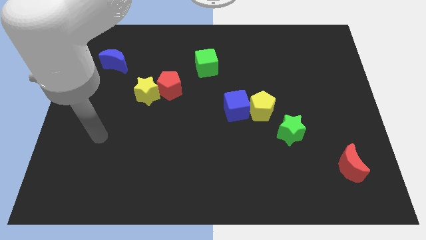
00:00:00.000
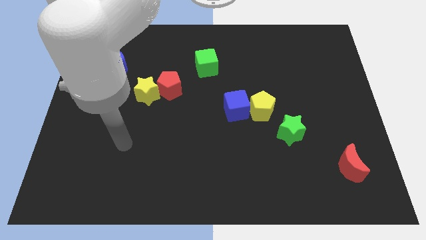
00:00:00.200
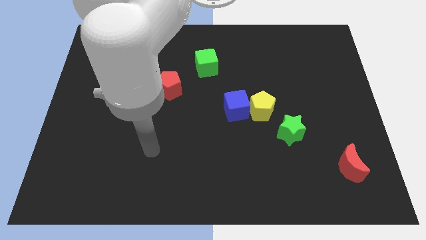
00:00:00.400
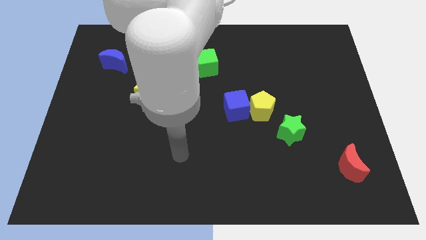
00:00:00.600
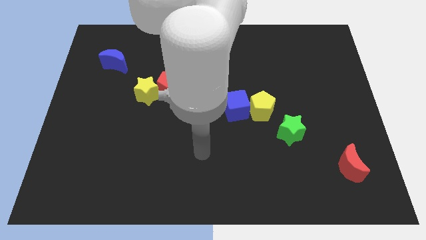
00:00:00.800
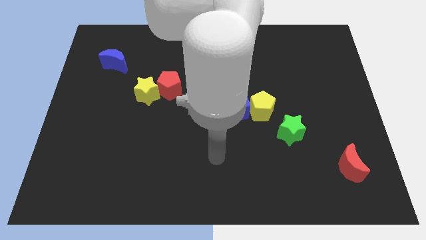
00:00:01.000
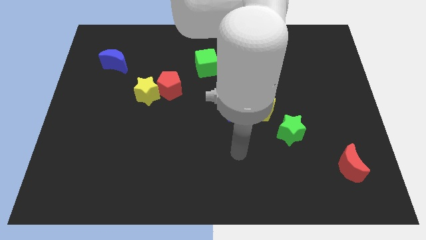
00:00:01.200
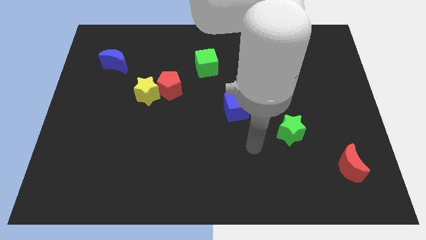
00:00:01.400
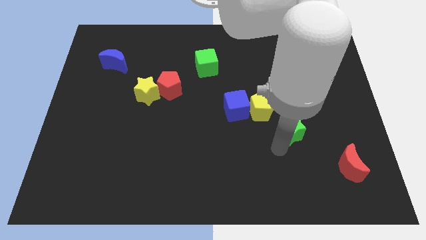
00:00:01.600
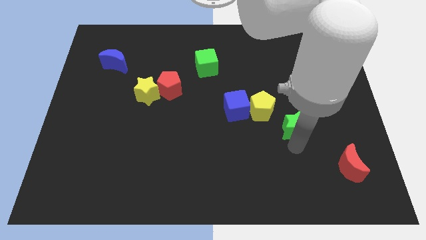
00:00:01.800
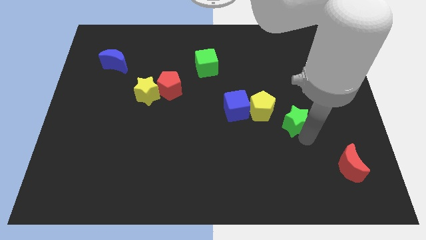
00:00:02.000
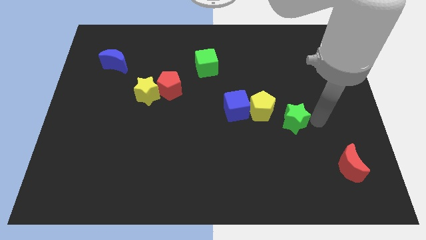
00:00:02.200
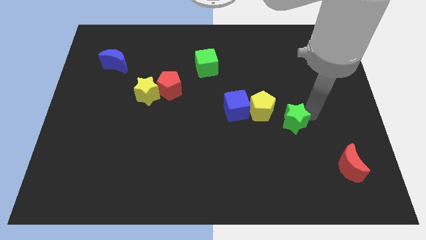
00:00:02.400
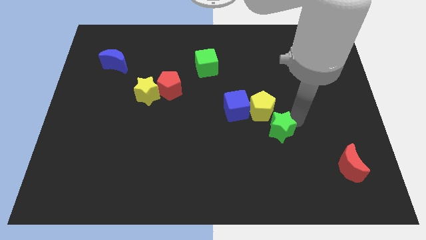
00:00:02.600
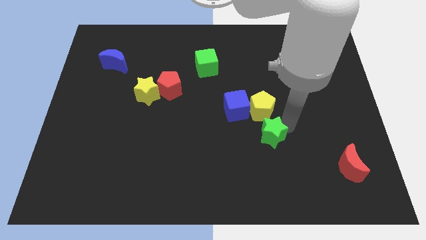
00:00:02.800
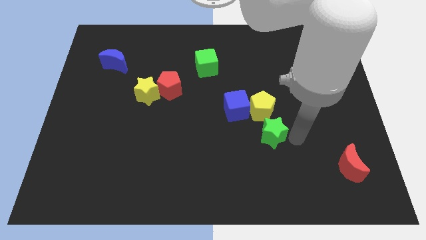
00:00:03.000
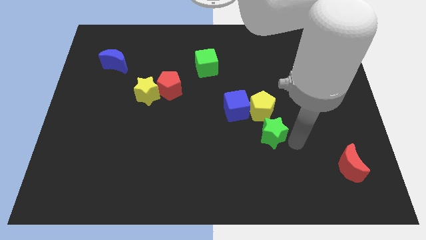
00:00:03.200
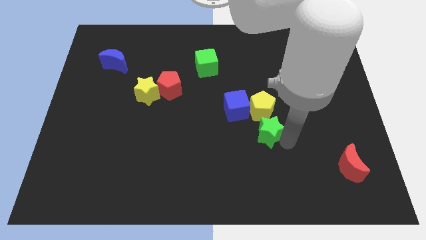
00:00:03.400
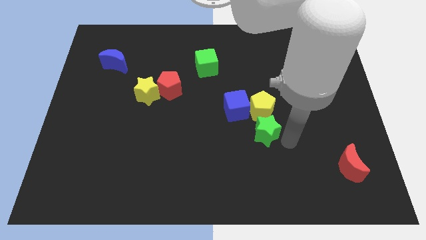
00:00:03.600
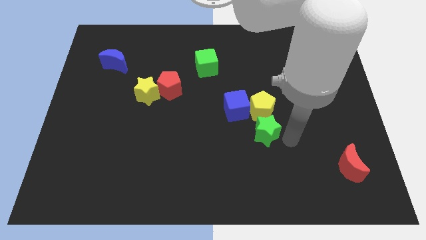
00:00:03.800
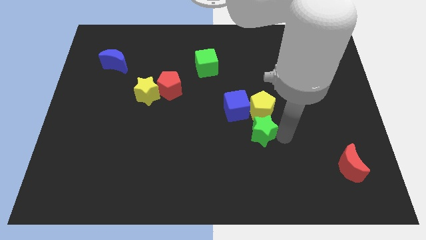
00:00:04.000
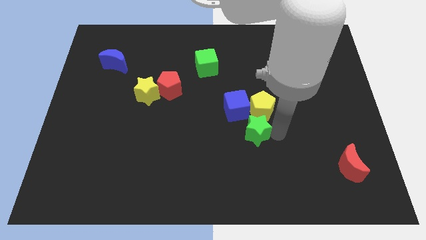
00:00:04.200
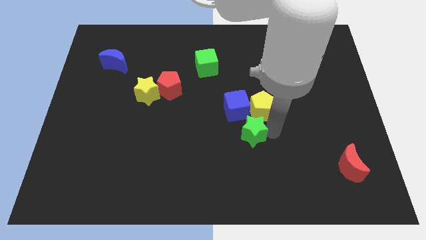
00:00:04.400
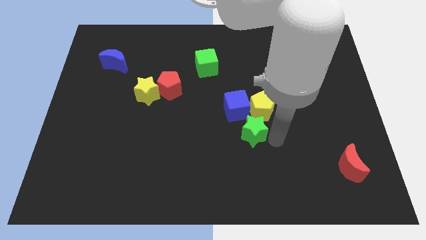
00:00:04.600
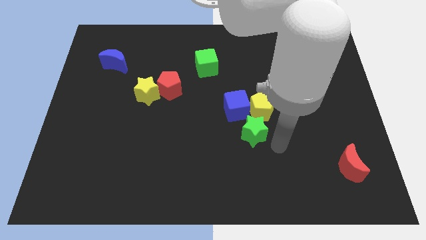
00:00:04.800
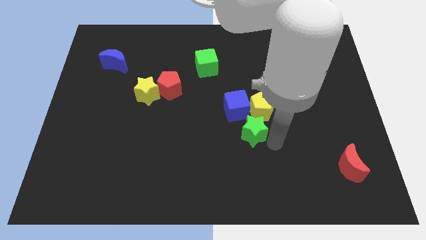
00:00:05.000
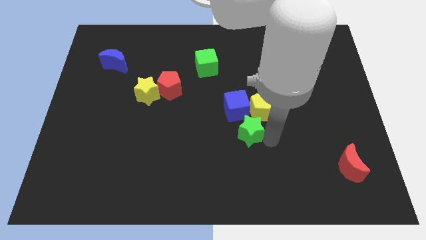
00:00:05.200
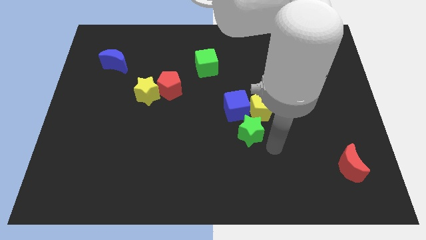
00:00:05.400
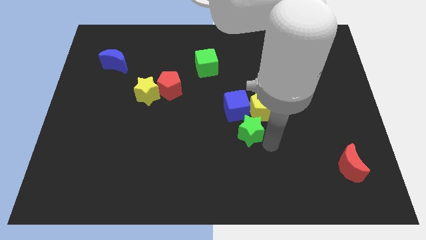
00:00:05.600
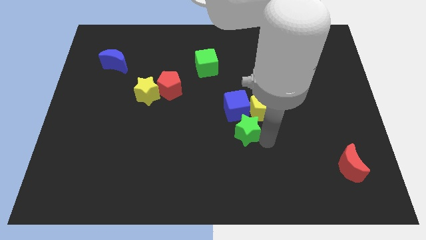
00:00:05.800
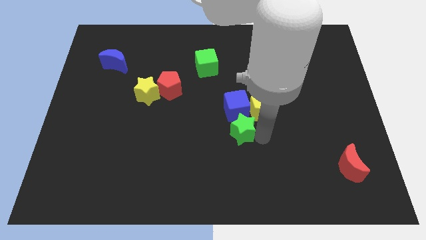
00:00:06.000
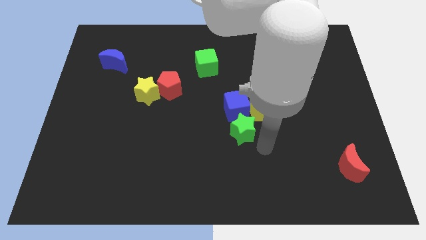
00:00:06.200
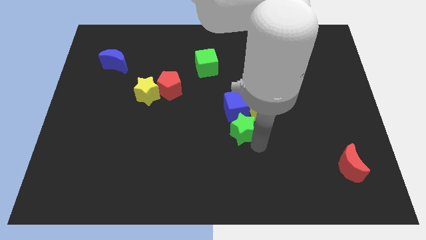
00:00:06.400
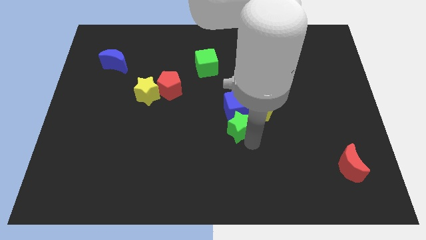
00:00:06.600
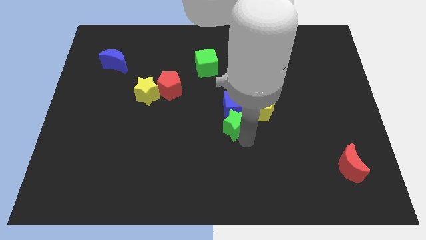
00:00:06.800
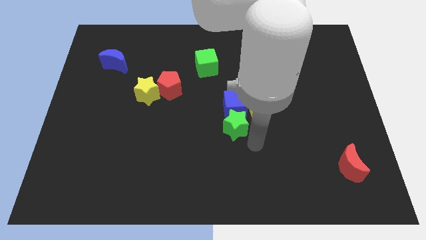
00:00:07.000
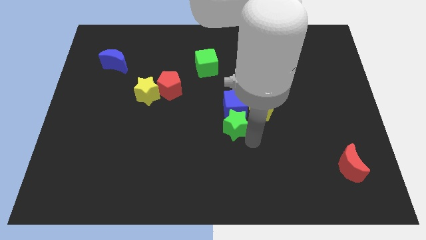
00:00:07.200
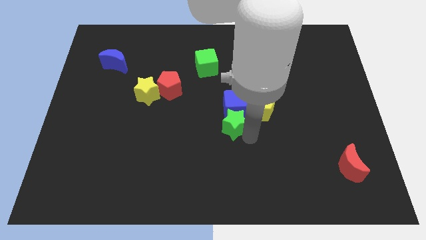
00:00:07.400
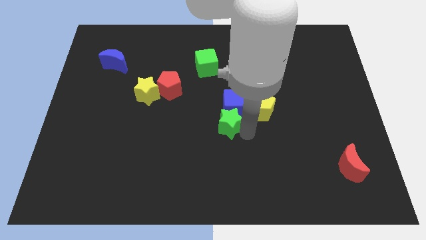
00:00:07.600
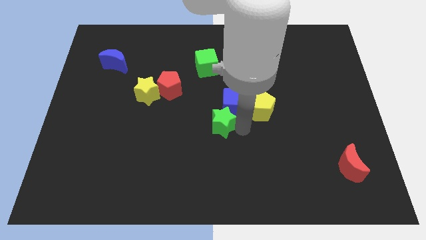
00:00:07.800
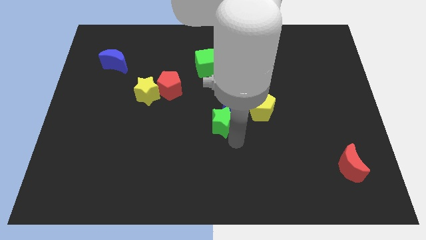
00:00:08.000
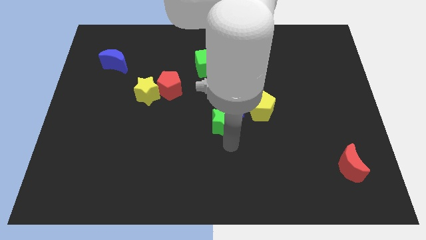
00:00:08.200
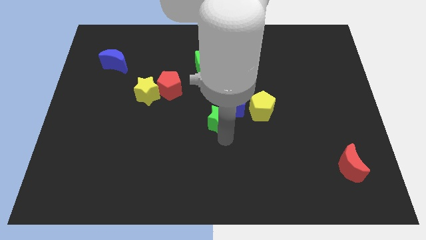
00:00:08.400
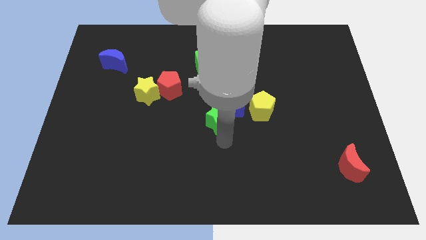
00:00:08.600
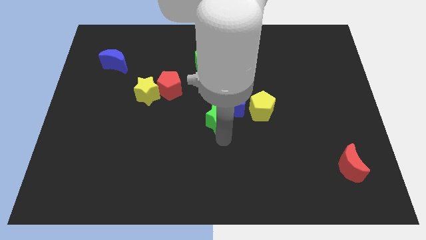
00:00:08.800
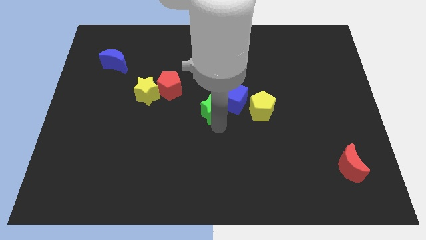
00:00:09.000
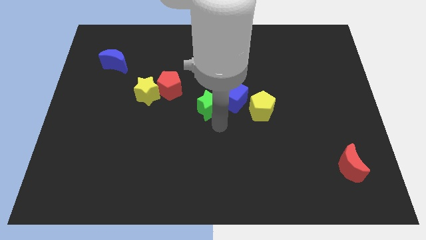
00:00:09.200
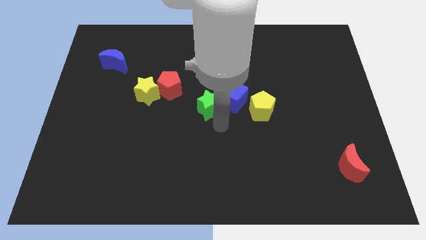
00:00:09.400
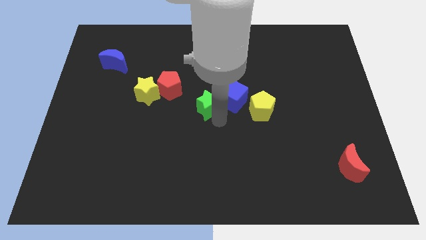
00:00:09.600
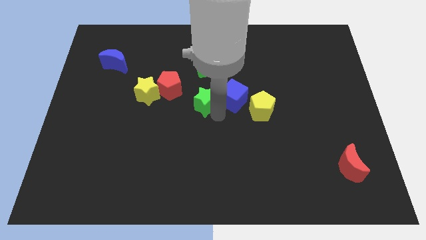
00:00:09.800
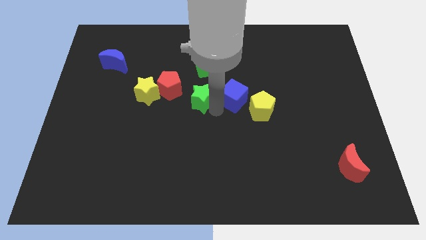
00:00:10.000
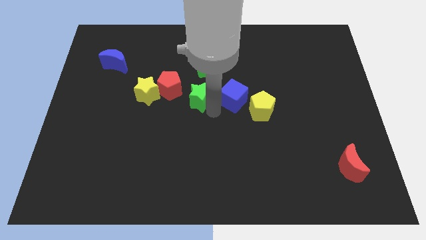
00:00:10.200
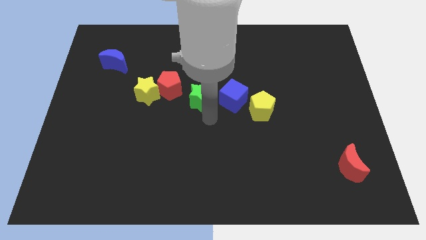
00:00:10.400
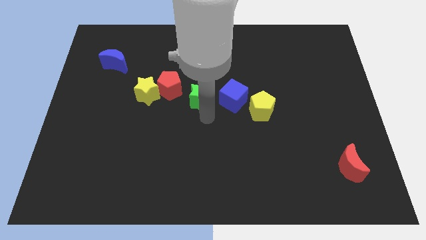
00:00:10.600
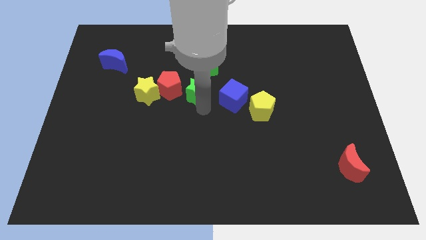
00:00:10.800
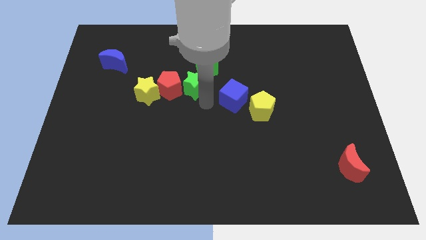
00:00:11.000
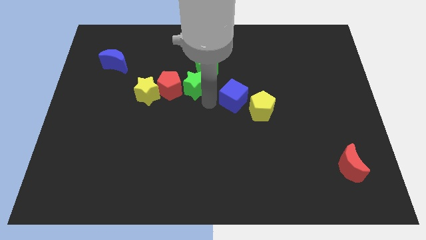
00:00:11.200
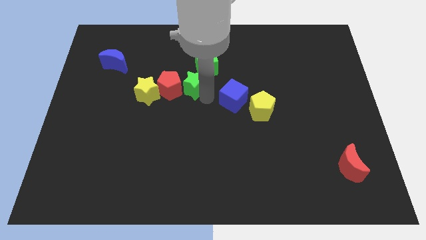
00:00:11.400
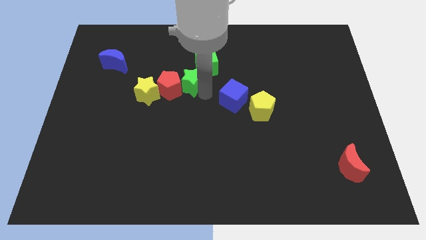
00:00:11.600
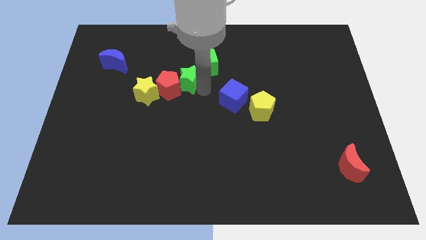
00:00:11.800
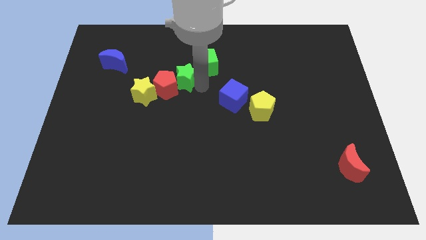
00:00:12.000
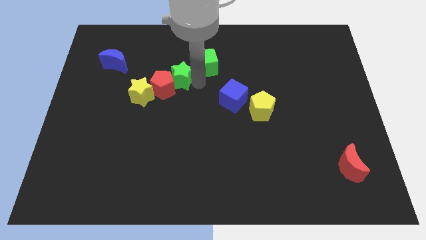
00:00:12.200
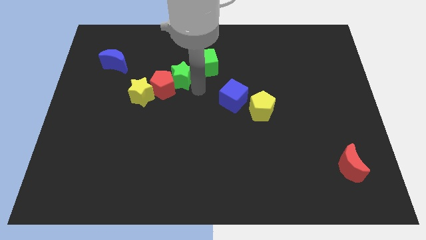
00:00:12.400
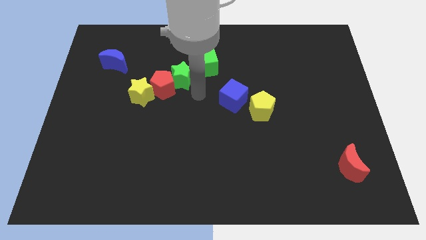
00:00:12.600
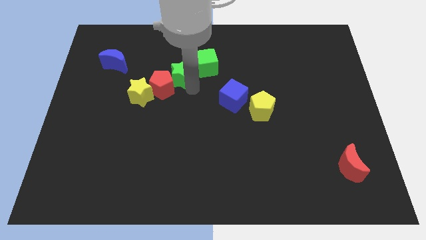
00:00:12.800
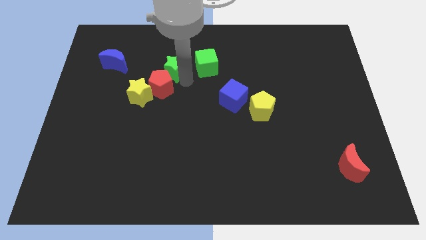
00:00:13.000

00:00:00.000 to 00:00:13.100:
move the green star right of the blue moon

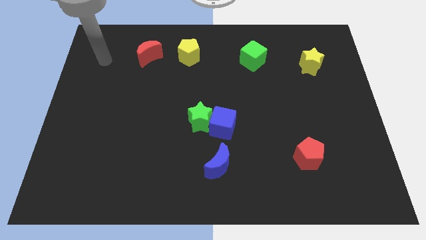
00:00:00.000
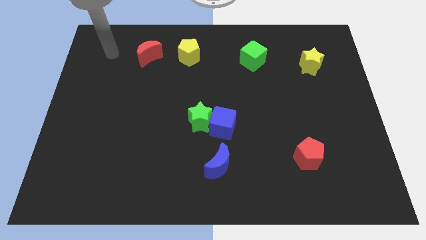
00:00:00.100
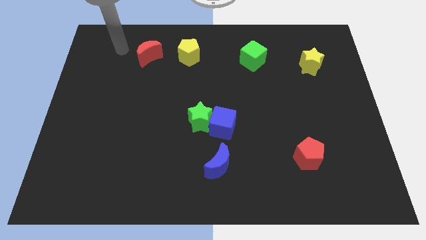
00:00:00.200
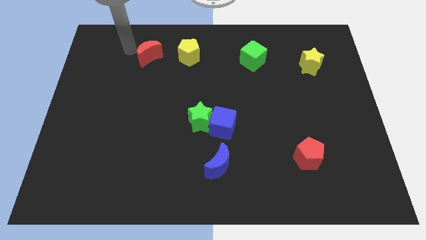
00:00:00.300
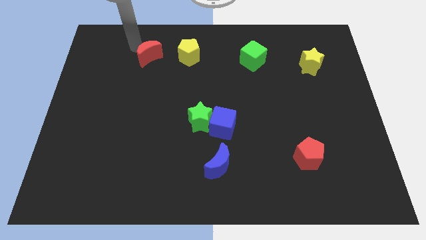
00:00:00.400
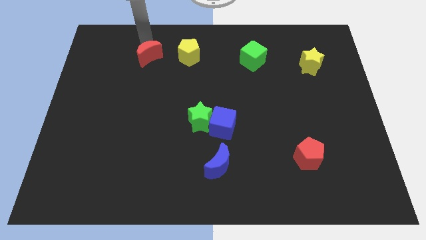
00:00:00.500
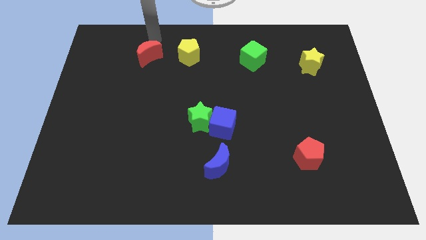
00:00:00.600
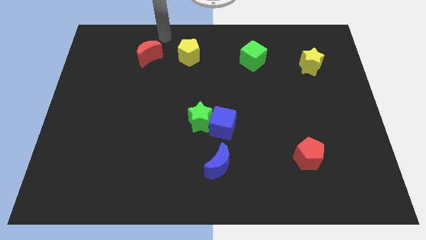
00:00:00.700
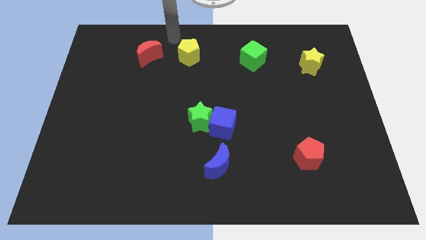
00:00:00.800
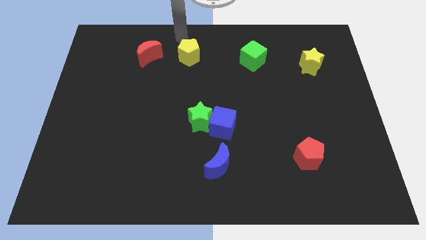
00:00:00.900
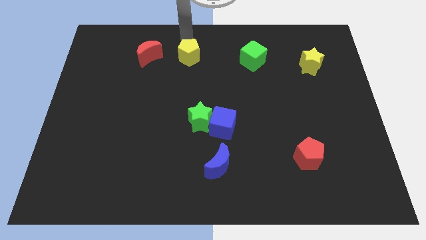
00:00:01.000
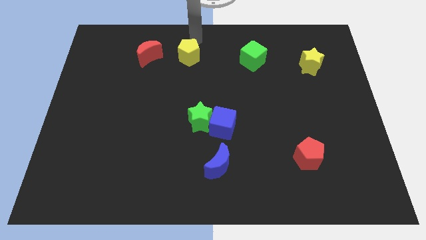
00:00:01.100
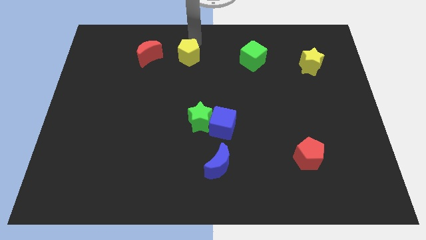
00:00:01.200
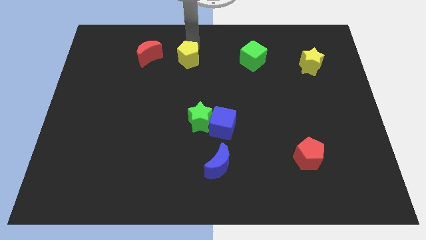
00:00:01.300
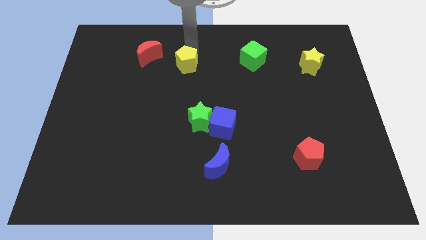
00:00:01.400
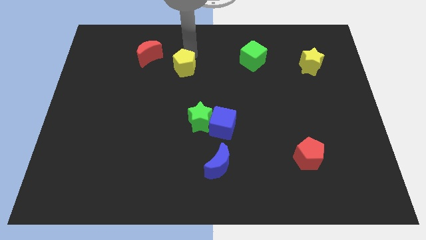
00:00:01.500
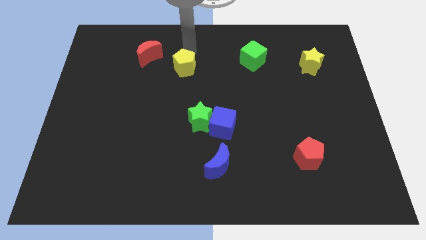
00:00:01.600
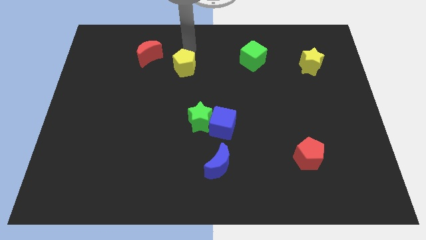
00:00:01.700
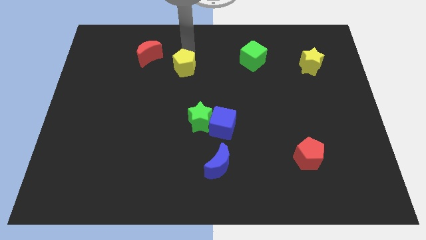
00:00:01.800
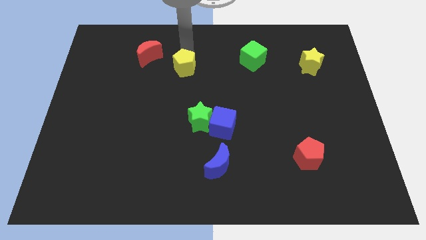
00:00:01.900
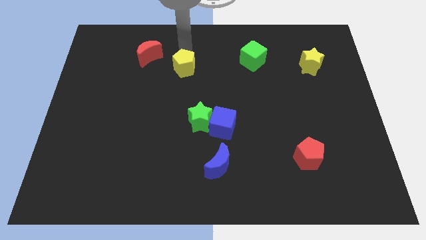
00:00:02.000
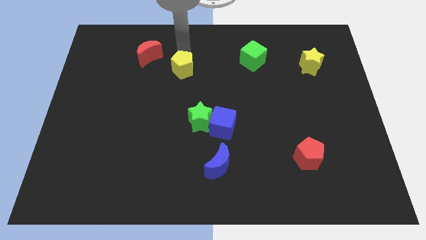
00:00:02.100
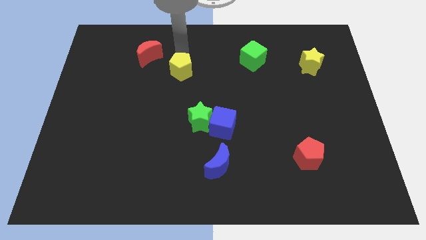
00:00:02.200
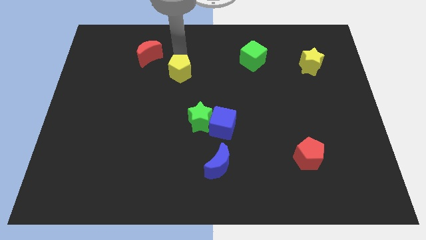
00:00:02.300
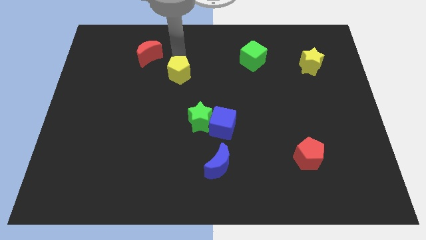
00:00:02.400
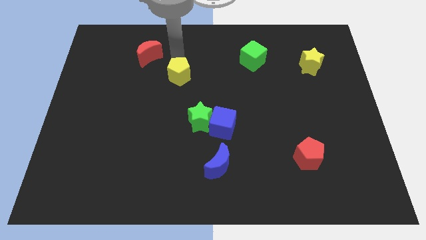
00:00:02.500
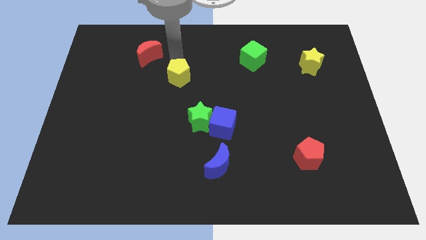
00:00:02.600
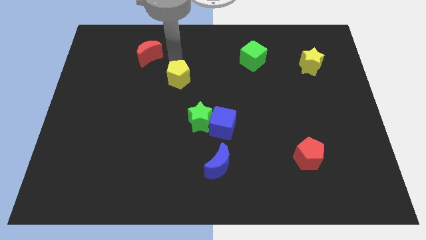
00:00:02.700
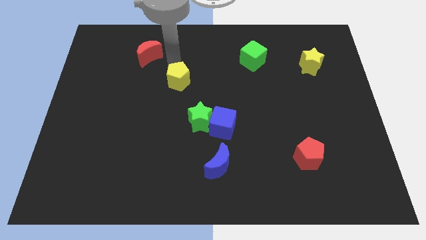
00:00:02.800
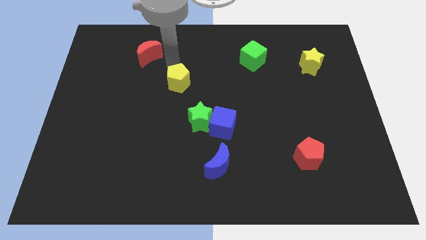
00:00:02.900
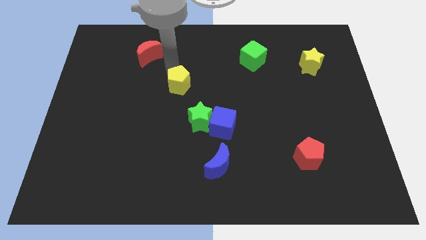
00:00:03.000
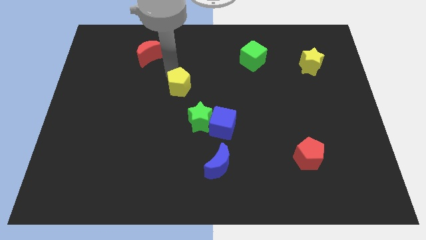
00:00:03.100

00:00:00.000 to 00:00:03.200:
move the yellow pentagon to the top left side of the green star
